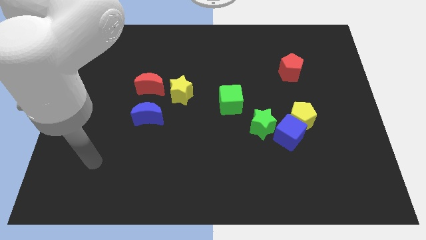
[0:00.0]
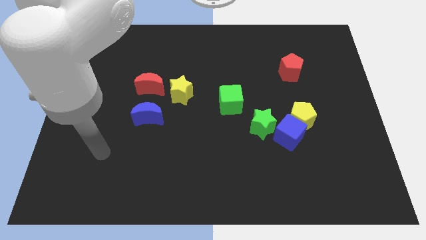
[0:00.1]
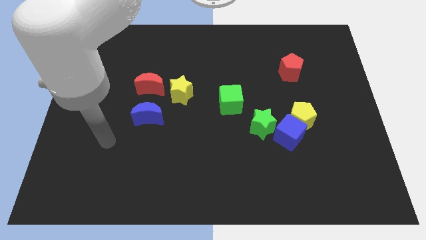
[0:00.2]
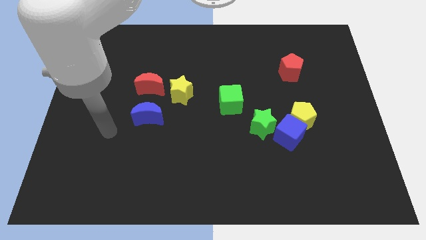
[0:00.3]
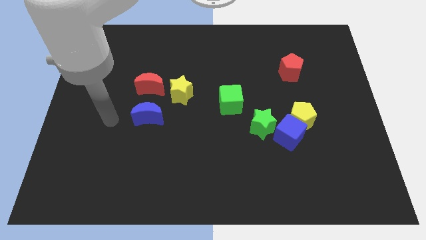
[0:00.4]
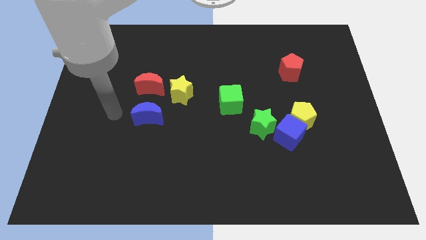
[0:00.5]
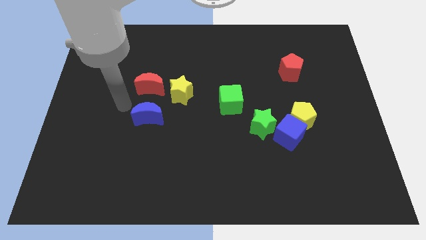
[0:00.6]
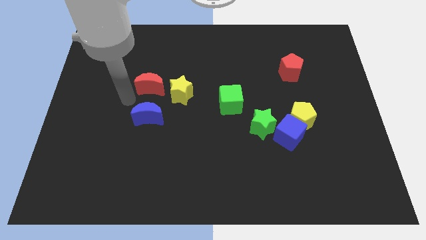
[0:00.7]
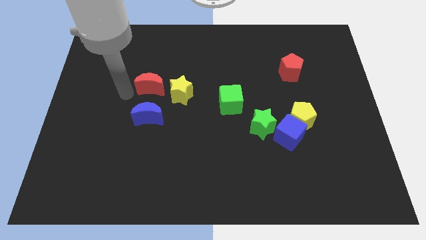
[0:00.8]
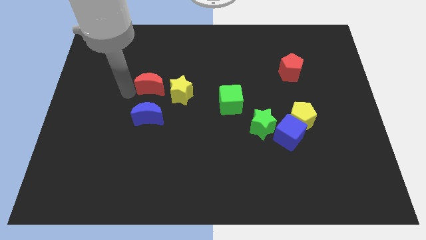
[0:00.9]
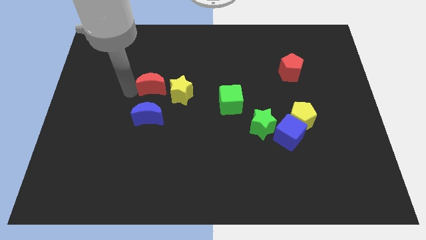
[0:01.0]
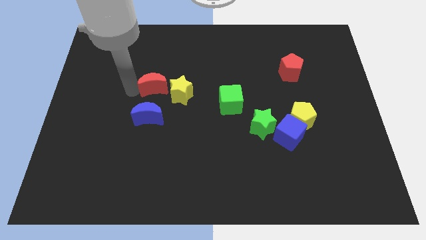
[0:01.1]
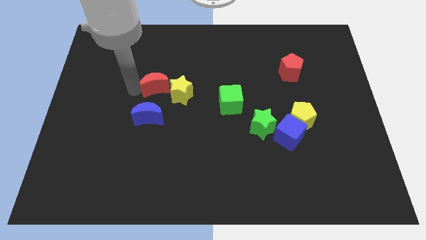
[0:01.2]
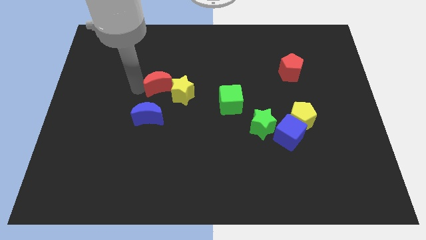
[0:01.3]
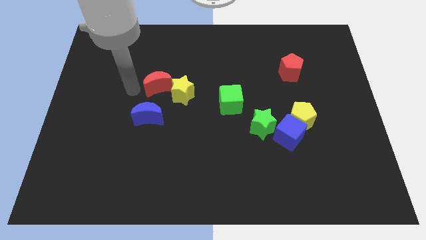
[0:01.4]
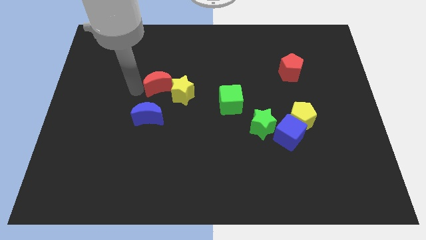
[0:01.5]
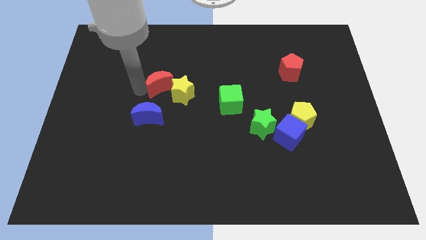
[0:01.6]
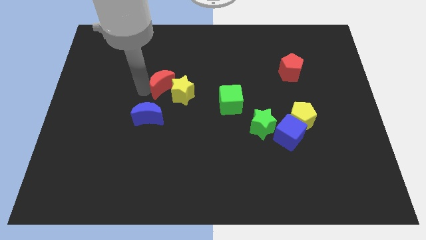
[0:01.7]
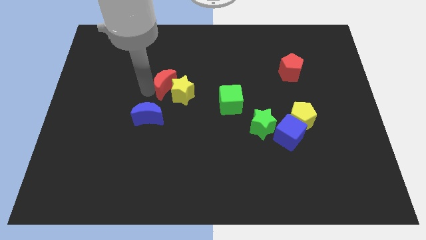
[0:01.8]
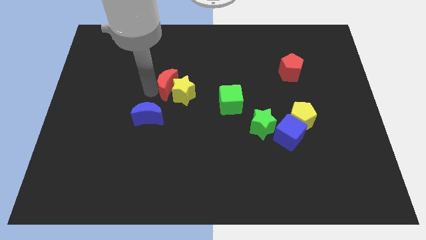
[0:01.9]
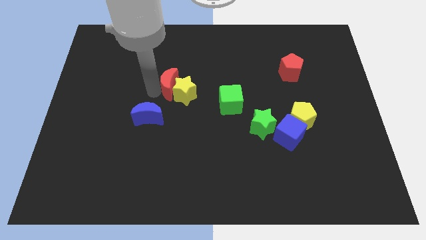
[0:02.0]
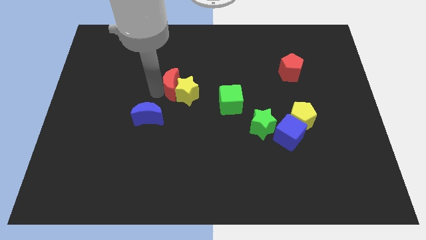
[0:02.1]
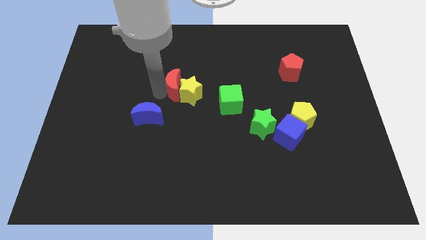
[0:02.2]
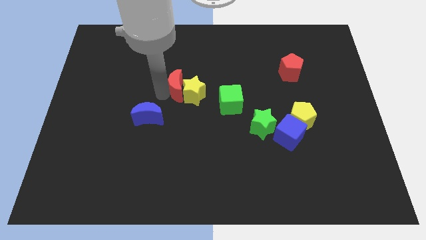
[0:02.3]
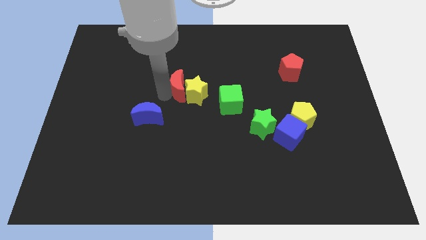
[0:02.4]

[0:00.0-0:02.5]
move the red moon somewhat to the right

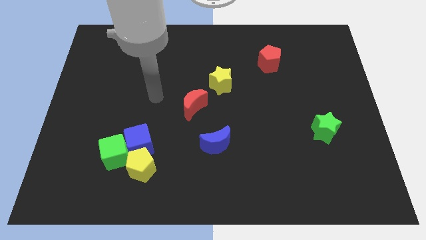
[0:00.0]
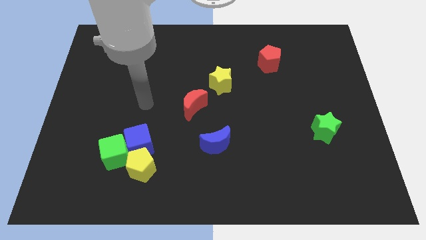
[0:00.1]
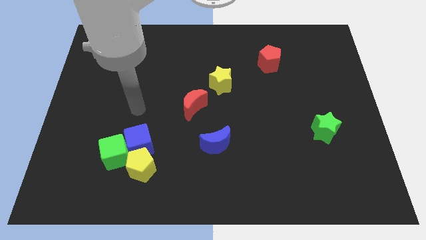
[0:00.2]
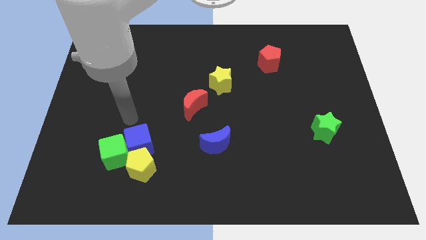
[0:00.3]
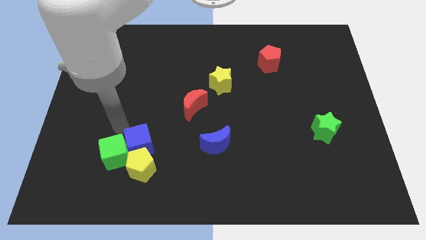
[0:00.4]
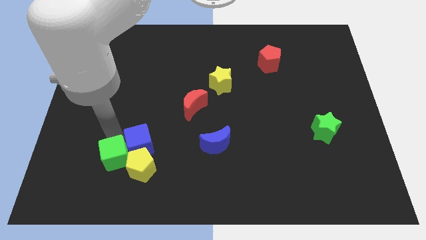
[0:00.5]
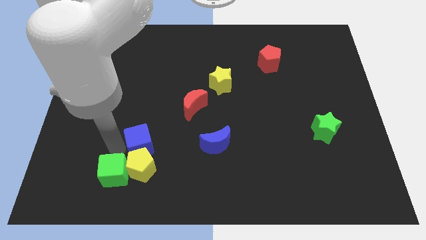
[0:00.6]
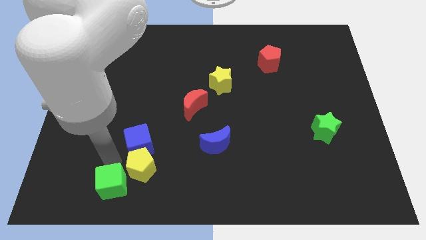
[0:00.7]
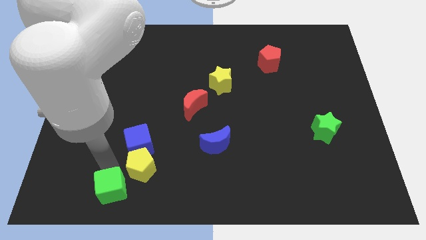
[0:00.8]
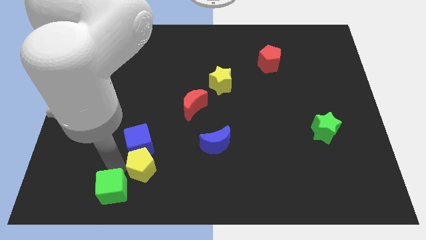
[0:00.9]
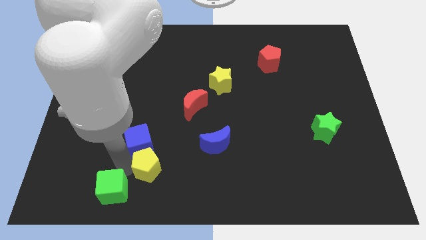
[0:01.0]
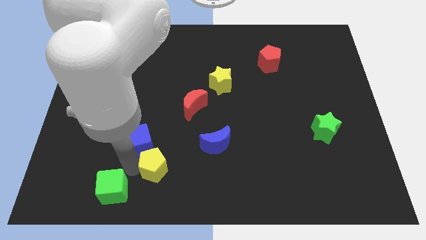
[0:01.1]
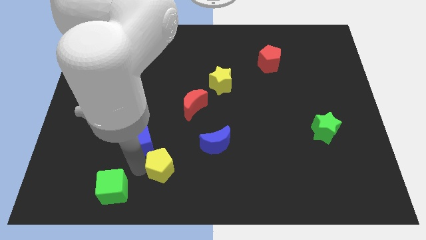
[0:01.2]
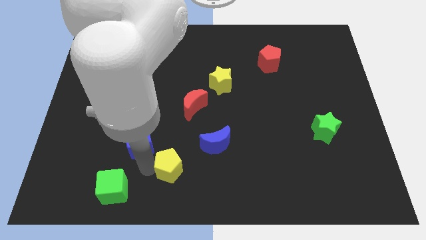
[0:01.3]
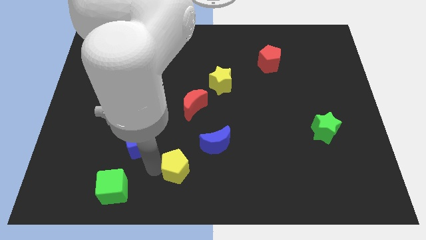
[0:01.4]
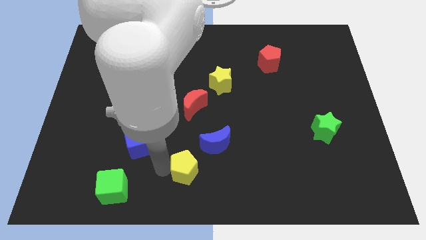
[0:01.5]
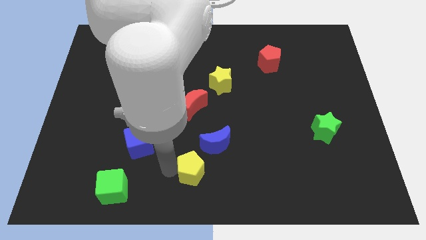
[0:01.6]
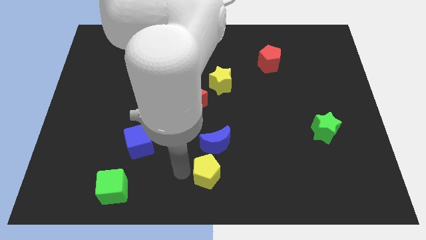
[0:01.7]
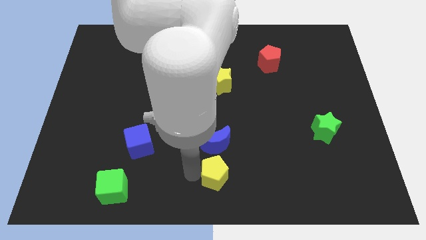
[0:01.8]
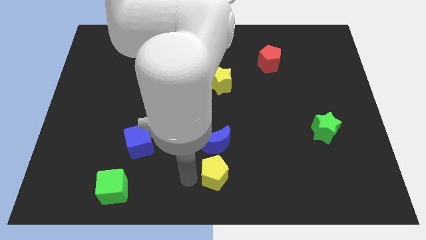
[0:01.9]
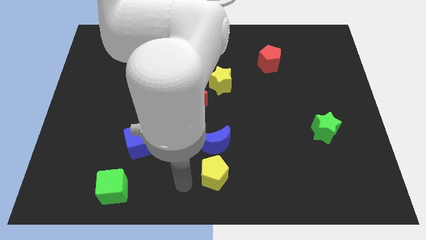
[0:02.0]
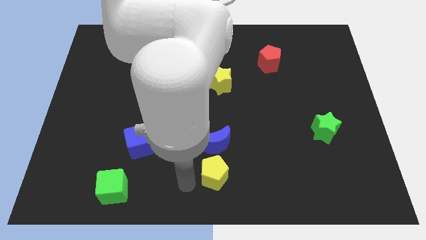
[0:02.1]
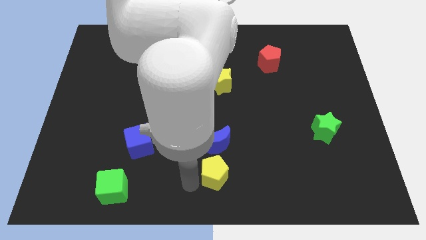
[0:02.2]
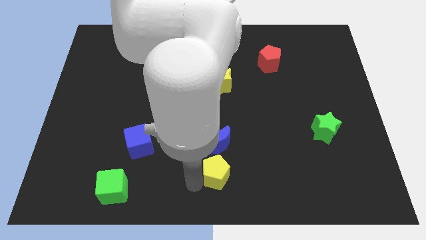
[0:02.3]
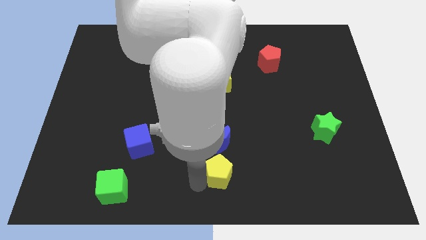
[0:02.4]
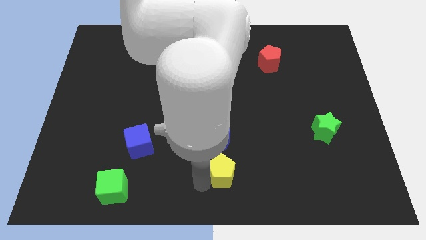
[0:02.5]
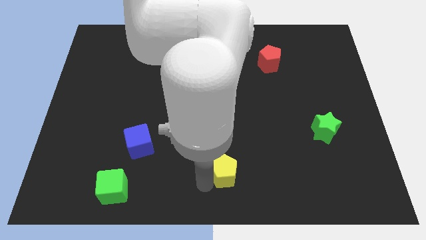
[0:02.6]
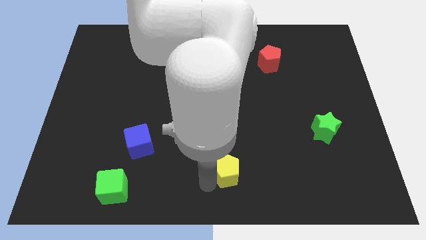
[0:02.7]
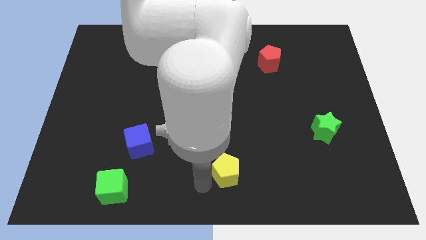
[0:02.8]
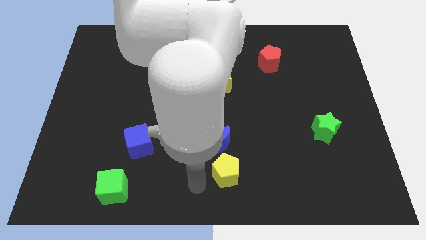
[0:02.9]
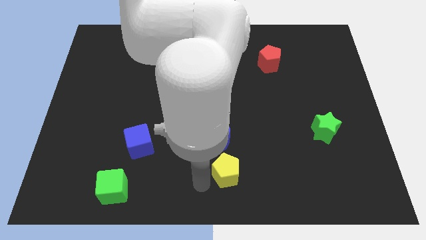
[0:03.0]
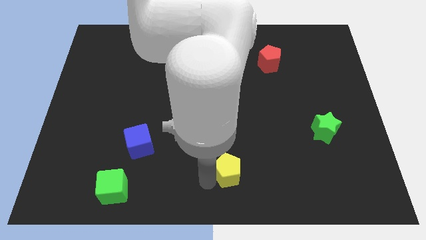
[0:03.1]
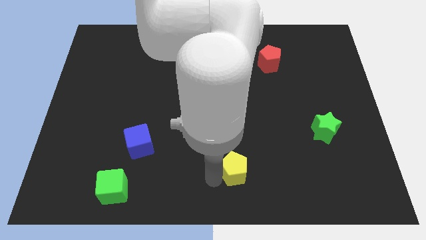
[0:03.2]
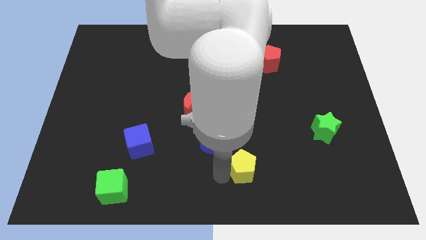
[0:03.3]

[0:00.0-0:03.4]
slide the yellow pentagon right

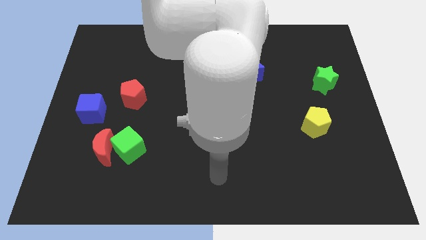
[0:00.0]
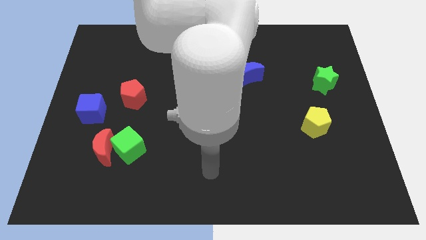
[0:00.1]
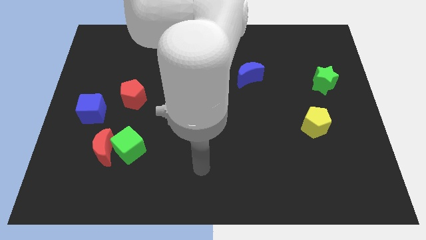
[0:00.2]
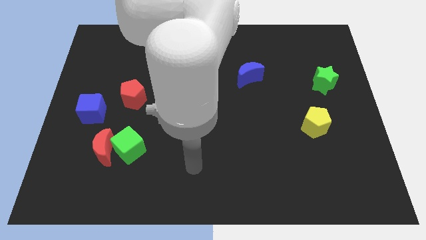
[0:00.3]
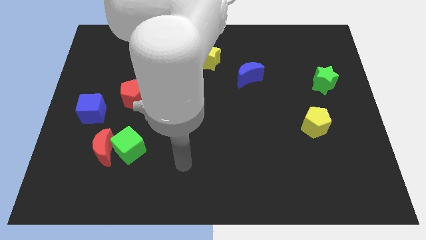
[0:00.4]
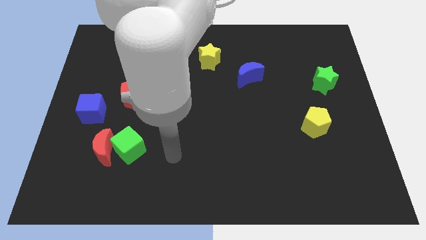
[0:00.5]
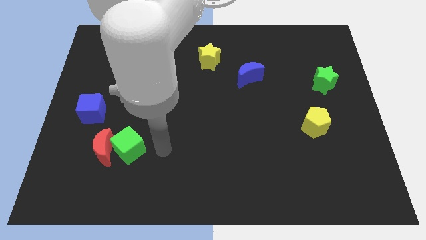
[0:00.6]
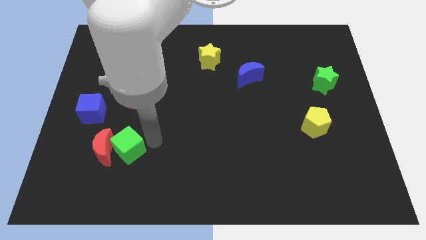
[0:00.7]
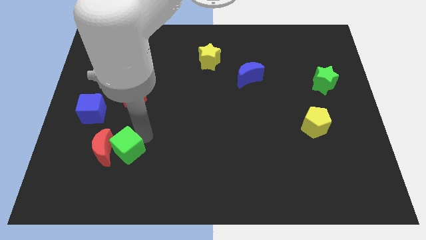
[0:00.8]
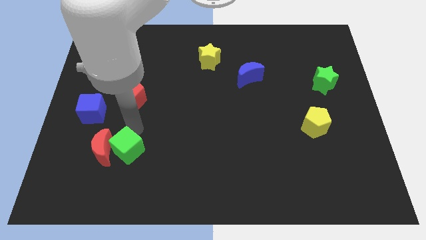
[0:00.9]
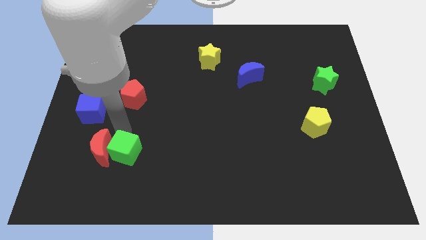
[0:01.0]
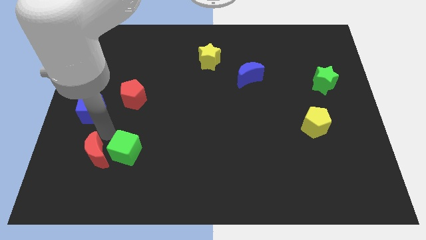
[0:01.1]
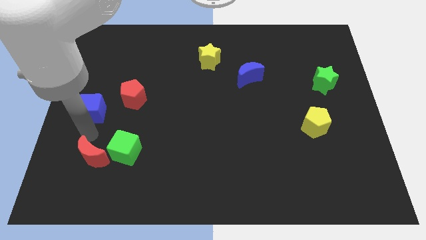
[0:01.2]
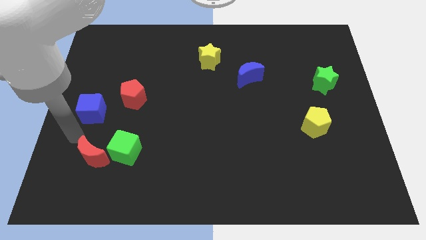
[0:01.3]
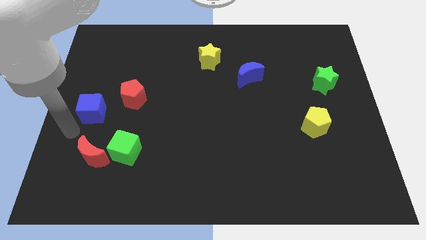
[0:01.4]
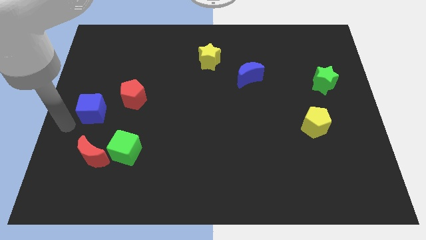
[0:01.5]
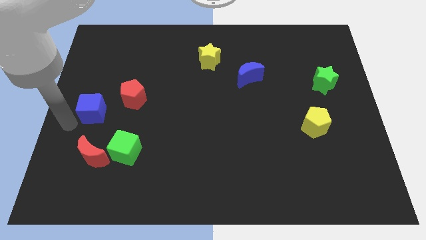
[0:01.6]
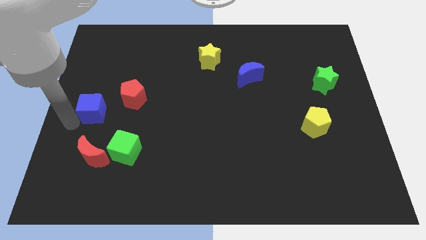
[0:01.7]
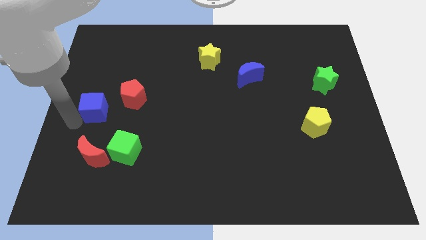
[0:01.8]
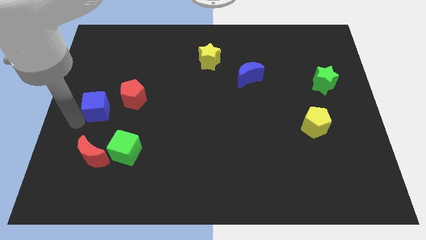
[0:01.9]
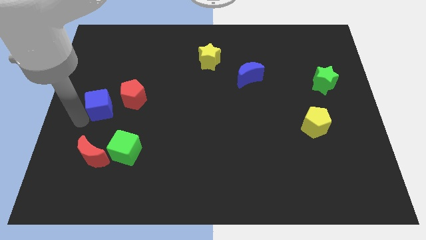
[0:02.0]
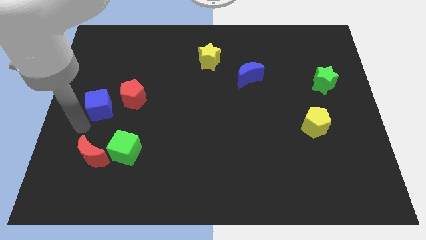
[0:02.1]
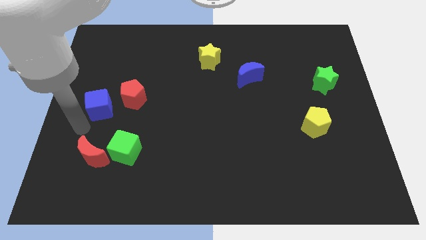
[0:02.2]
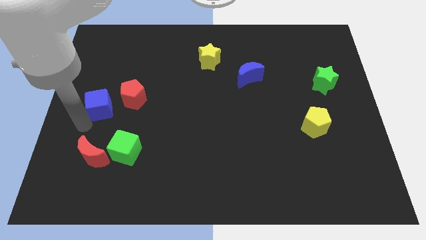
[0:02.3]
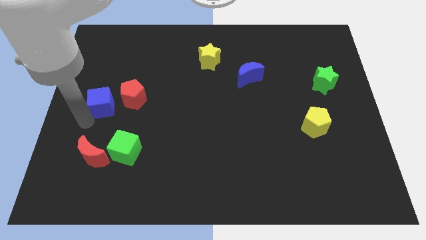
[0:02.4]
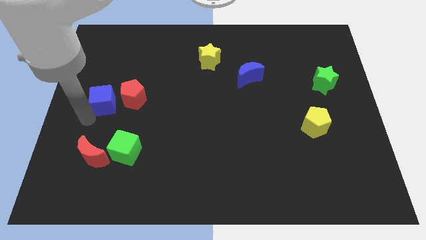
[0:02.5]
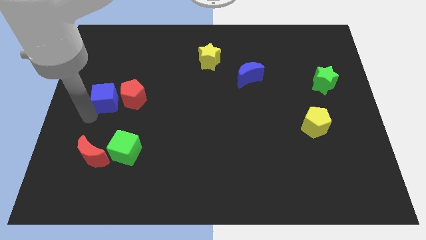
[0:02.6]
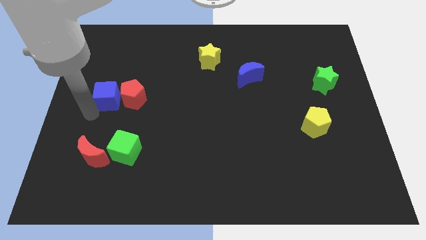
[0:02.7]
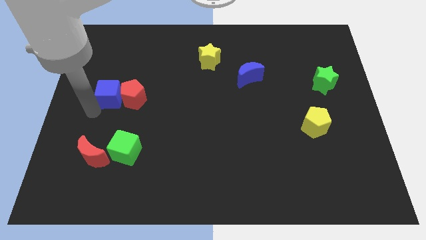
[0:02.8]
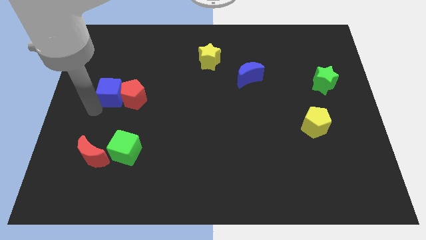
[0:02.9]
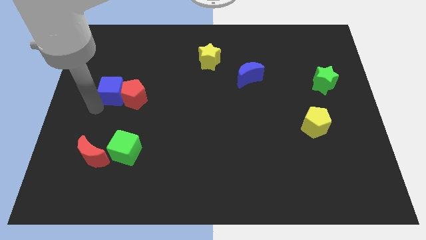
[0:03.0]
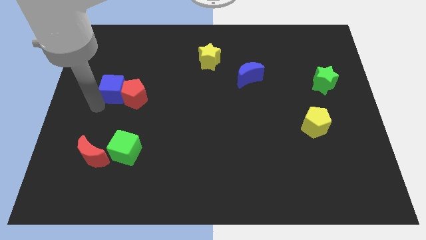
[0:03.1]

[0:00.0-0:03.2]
slide the blue cube a bit diagonally up and to the right
